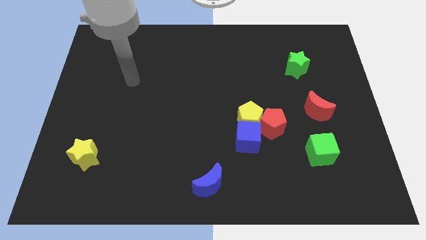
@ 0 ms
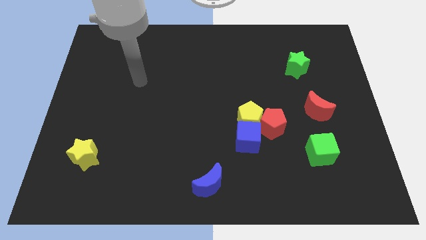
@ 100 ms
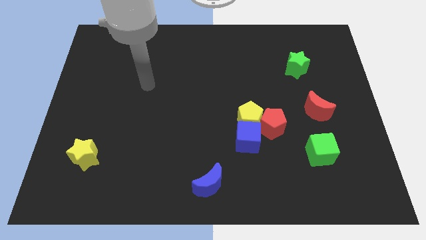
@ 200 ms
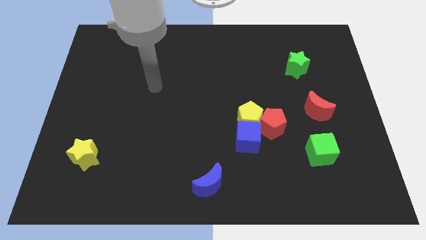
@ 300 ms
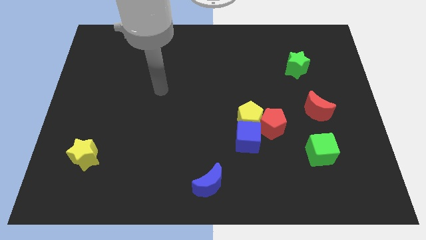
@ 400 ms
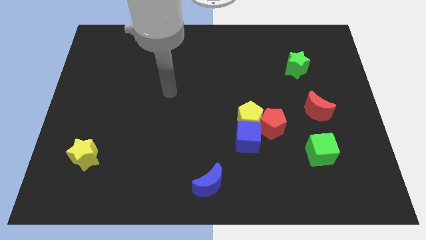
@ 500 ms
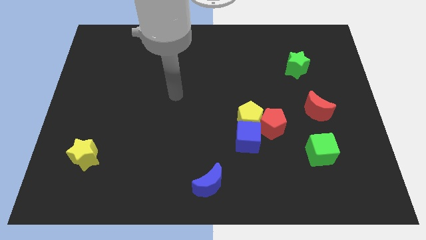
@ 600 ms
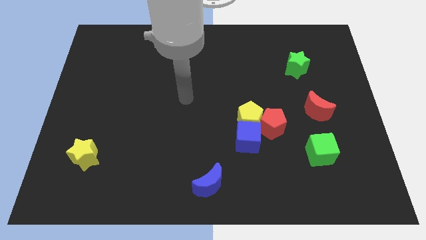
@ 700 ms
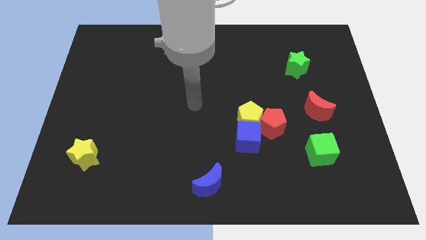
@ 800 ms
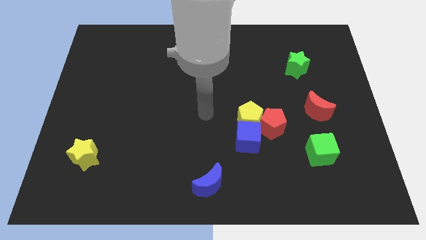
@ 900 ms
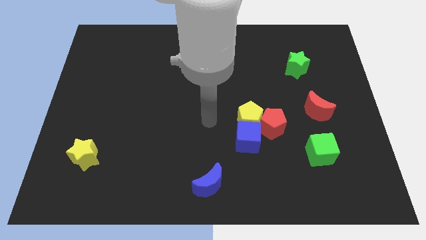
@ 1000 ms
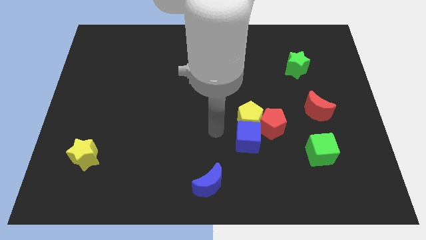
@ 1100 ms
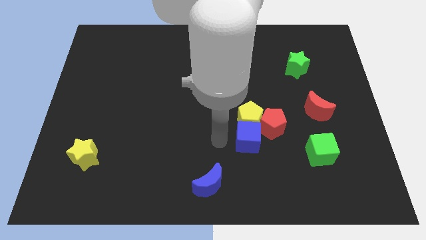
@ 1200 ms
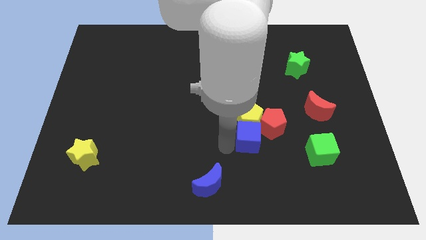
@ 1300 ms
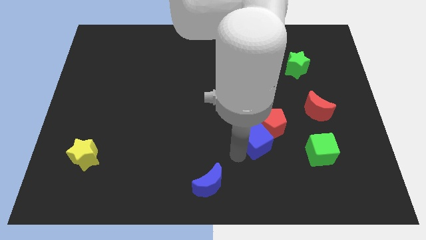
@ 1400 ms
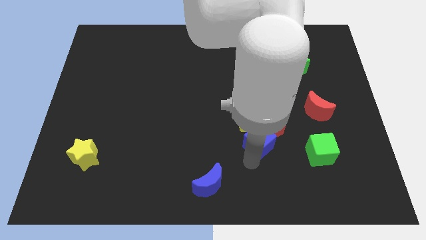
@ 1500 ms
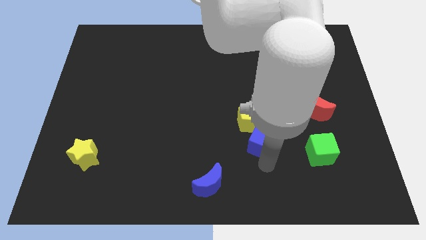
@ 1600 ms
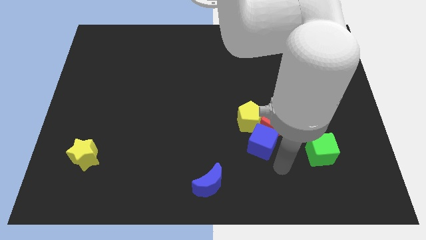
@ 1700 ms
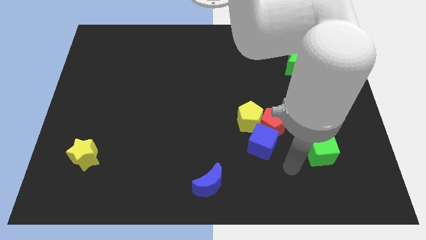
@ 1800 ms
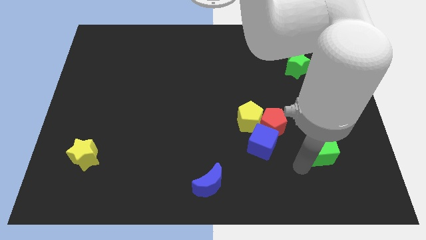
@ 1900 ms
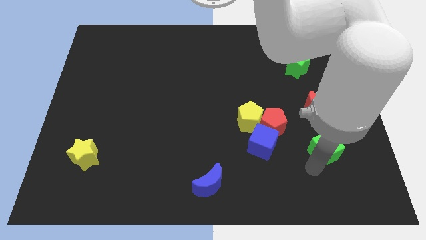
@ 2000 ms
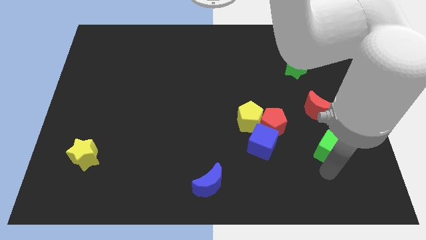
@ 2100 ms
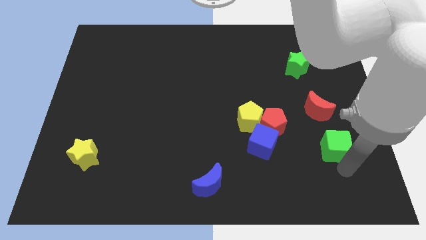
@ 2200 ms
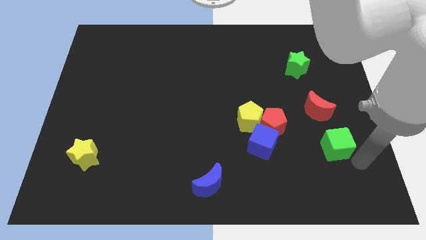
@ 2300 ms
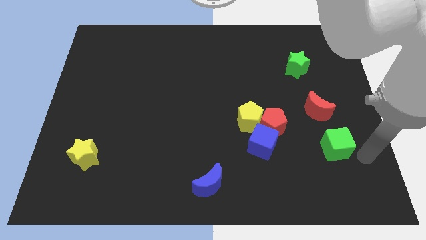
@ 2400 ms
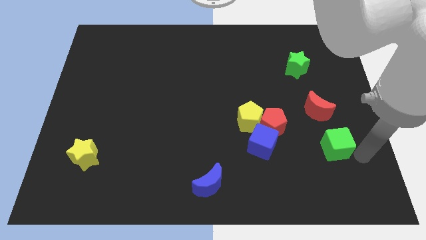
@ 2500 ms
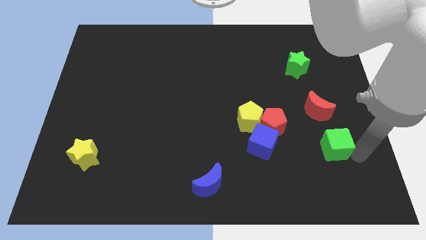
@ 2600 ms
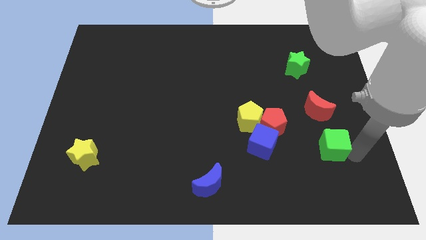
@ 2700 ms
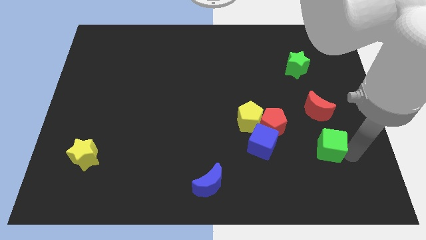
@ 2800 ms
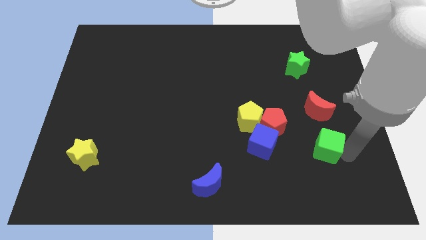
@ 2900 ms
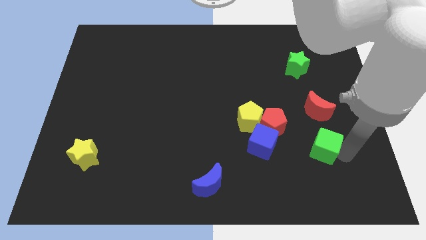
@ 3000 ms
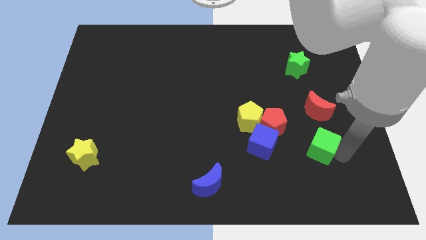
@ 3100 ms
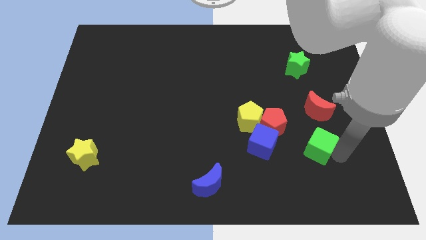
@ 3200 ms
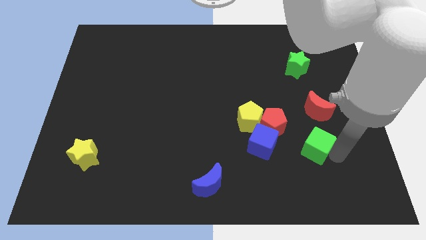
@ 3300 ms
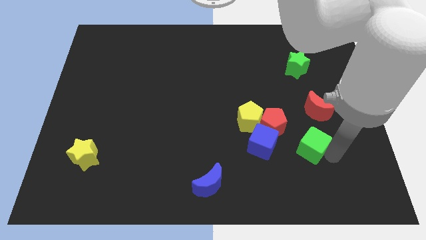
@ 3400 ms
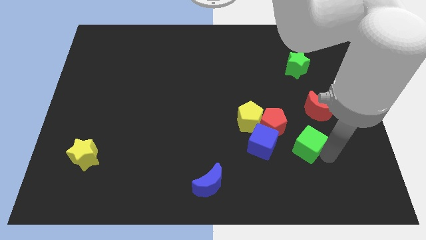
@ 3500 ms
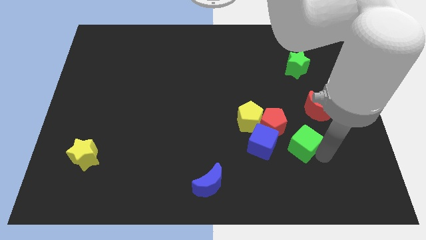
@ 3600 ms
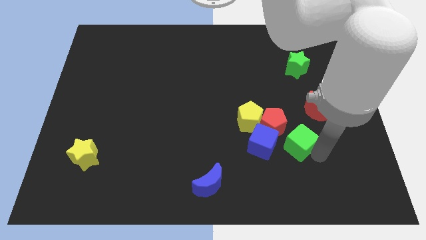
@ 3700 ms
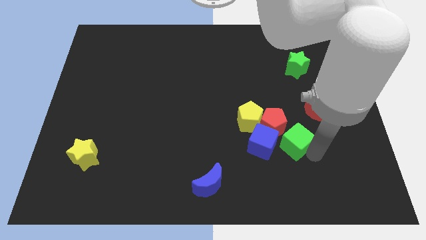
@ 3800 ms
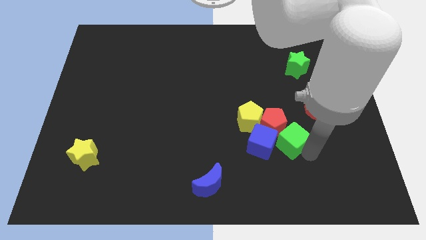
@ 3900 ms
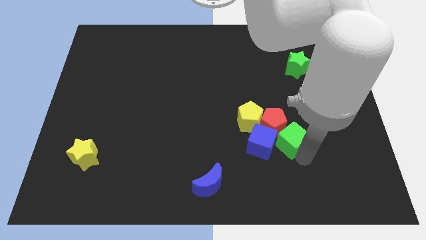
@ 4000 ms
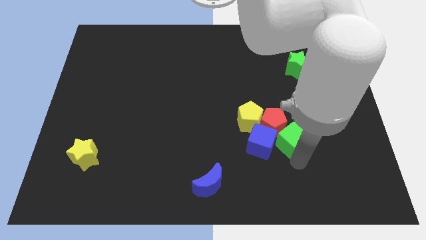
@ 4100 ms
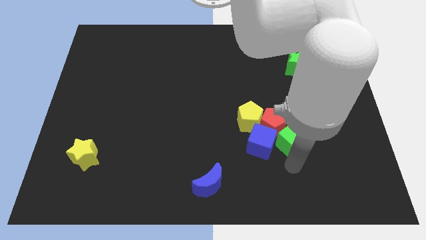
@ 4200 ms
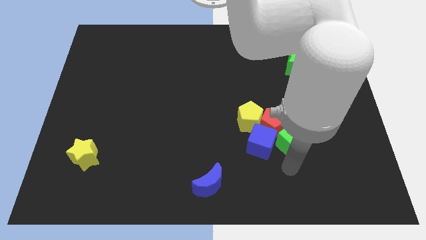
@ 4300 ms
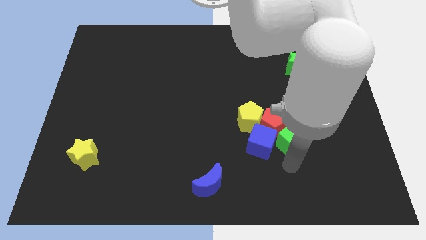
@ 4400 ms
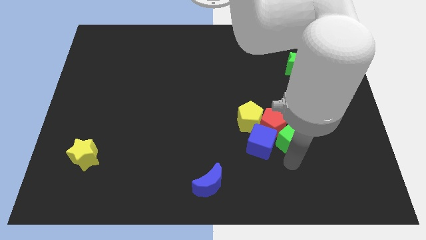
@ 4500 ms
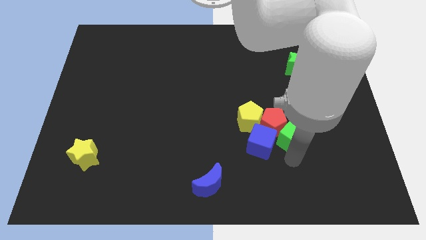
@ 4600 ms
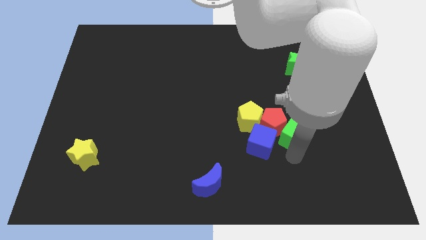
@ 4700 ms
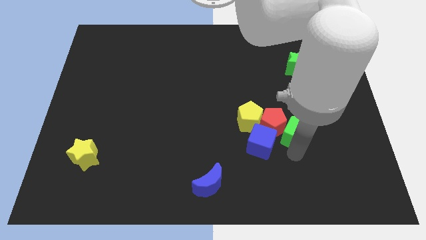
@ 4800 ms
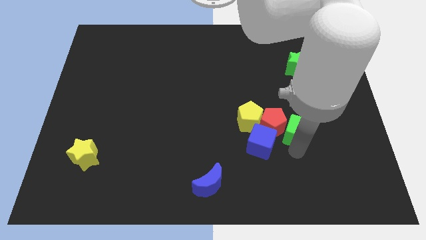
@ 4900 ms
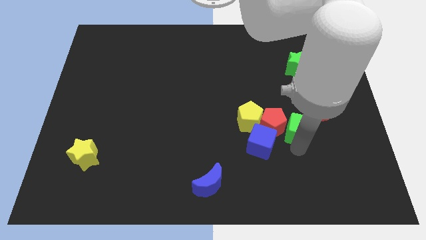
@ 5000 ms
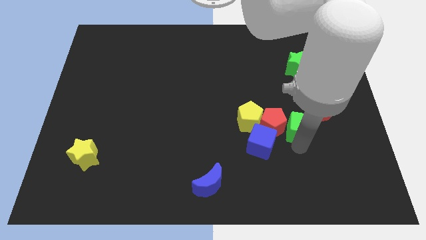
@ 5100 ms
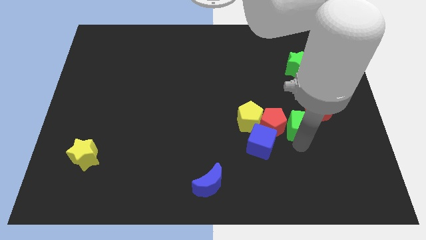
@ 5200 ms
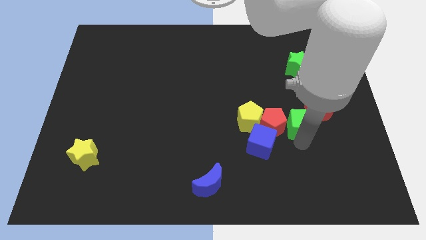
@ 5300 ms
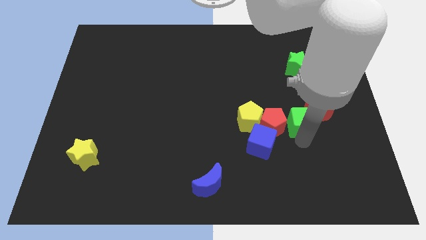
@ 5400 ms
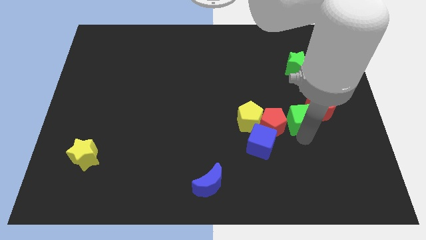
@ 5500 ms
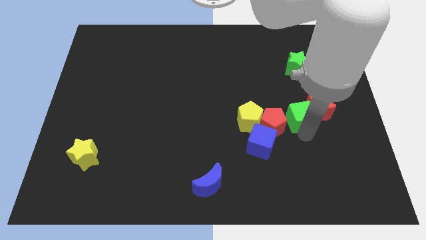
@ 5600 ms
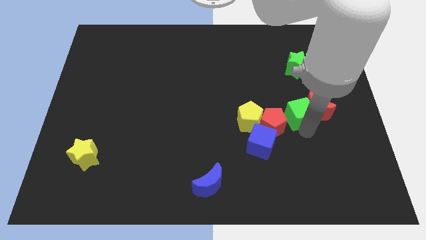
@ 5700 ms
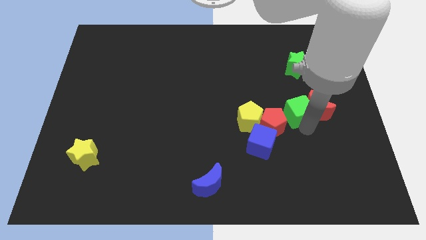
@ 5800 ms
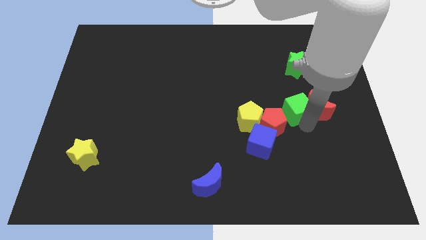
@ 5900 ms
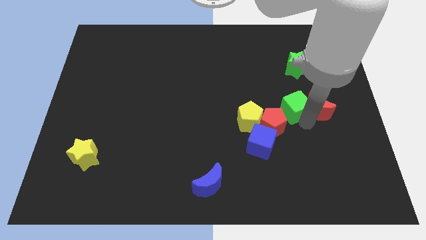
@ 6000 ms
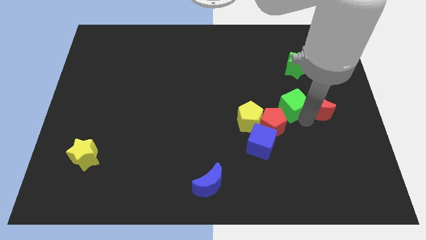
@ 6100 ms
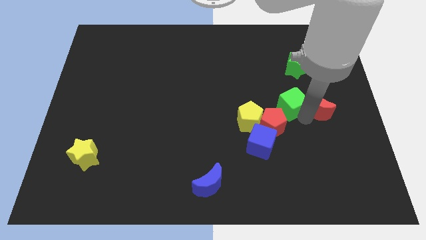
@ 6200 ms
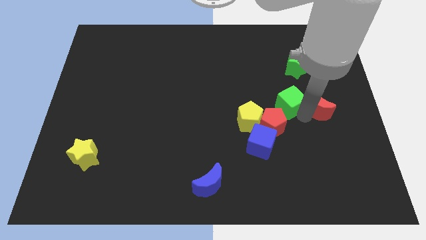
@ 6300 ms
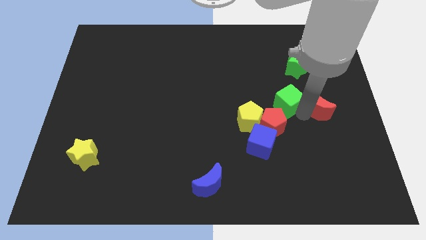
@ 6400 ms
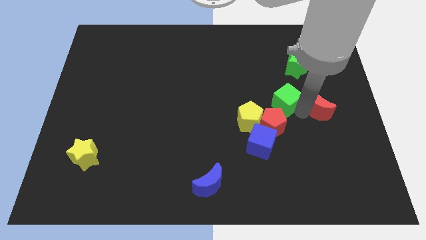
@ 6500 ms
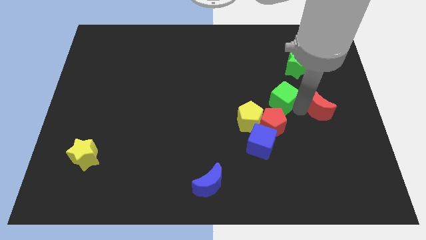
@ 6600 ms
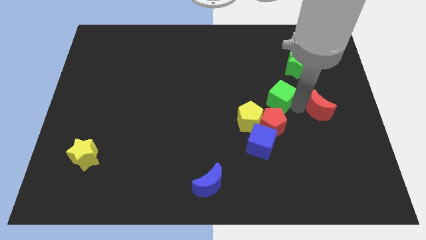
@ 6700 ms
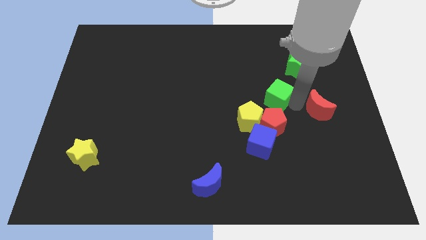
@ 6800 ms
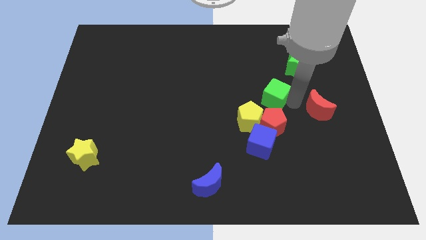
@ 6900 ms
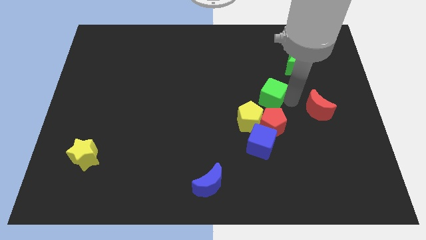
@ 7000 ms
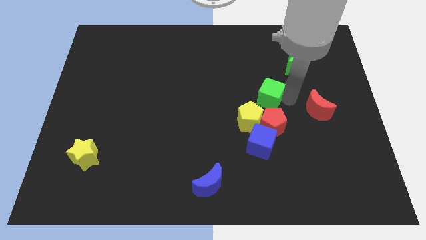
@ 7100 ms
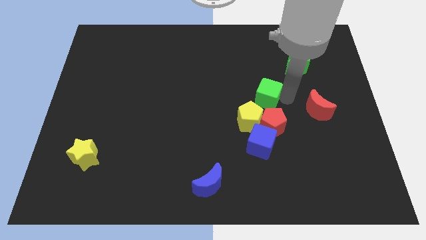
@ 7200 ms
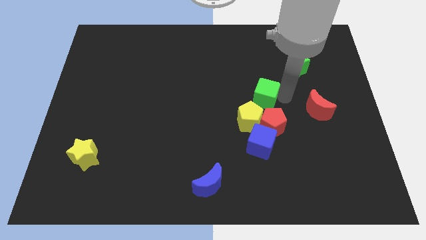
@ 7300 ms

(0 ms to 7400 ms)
move the green cube to the center

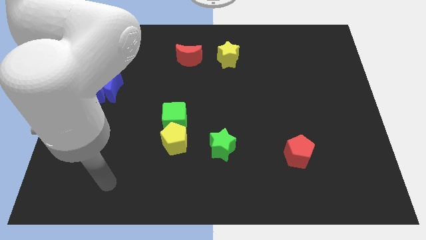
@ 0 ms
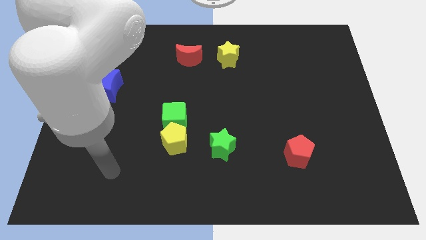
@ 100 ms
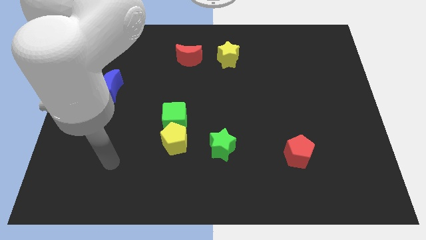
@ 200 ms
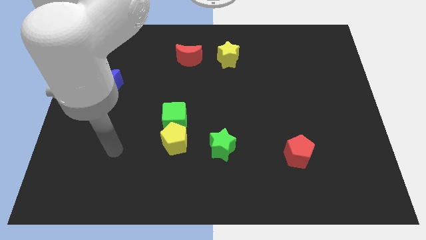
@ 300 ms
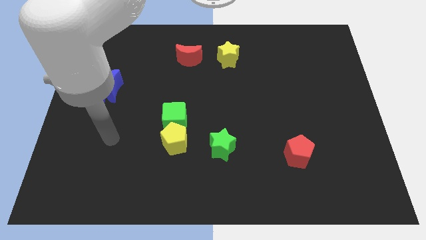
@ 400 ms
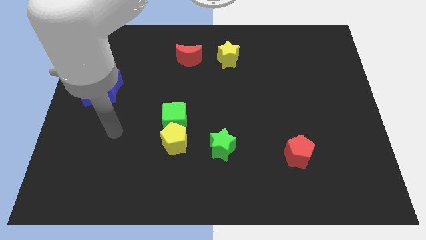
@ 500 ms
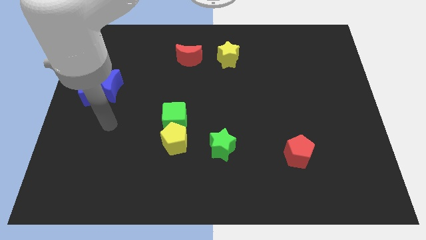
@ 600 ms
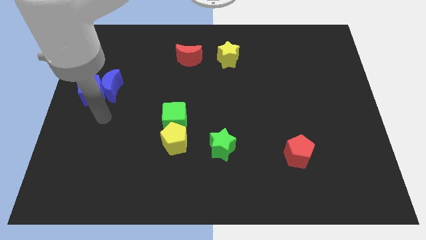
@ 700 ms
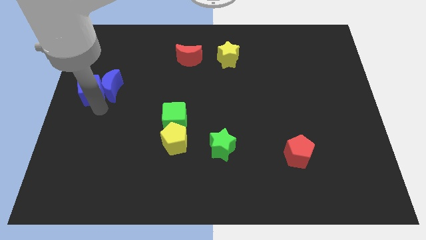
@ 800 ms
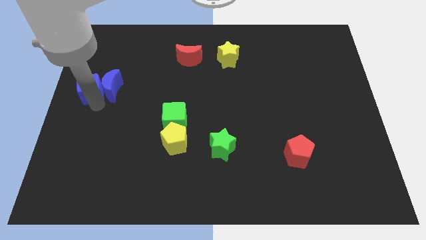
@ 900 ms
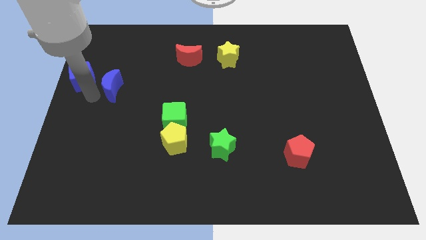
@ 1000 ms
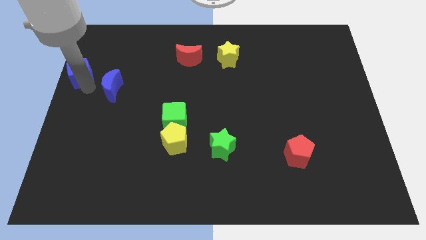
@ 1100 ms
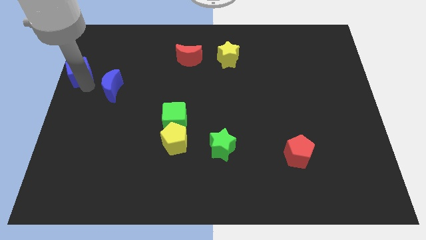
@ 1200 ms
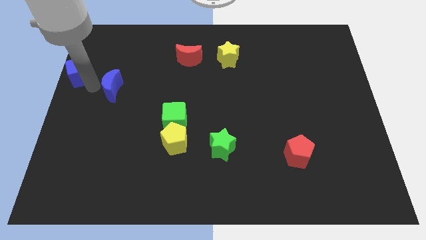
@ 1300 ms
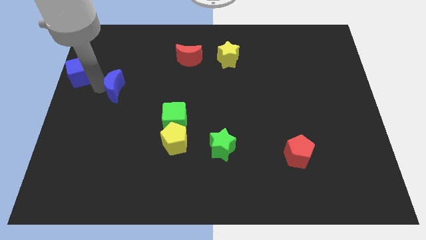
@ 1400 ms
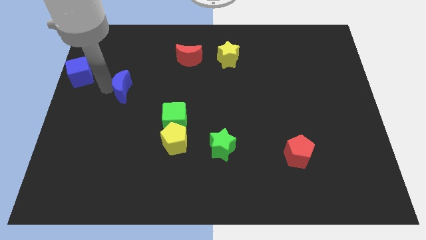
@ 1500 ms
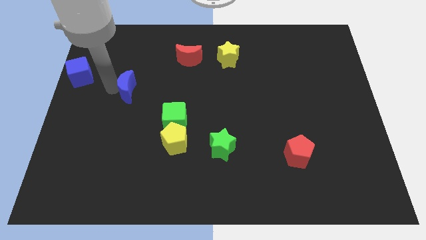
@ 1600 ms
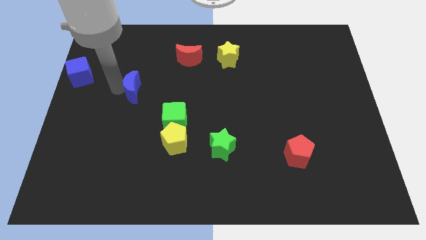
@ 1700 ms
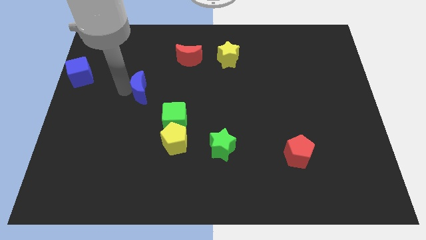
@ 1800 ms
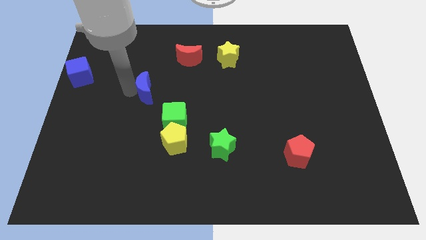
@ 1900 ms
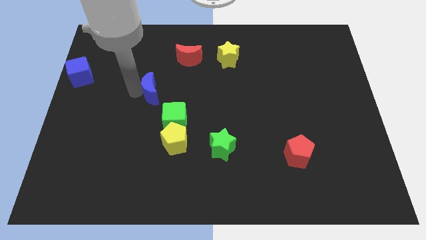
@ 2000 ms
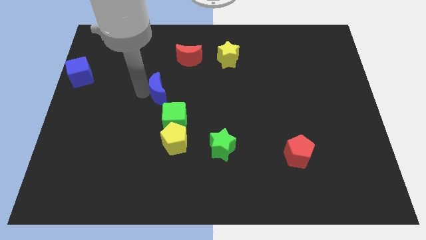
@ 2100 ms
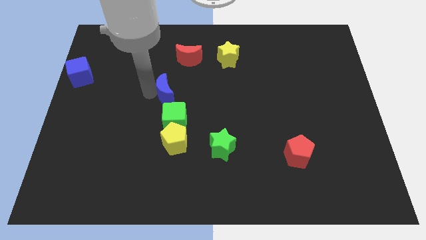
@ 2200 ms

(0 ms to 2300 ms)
move the blue moon to the center of the board
